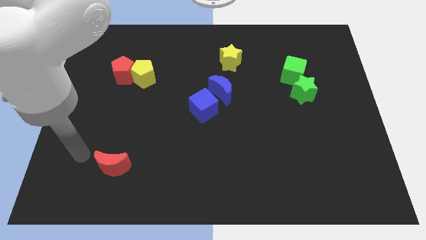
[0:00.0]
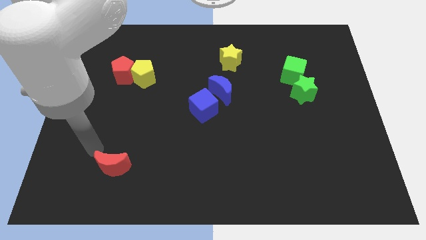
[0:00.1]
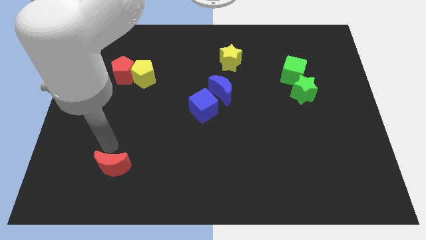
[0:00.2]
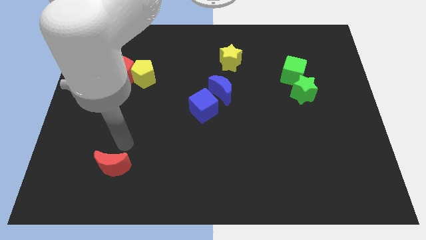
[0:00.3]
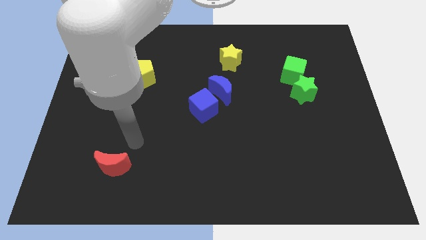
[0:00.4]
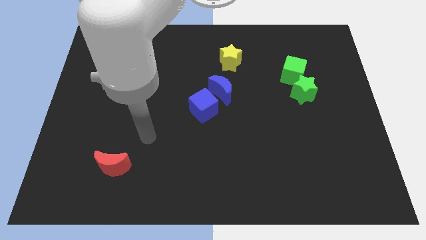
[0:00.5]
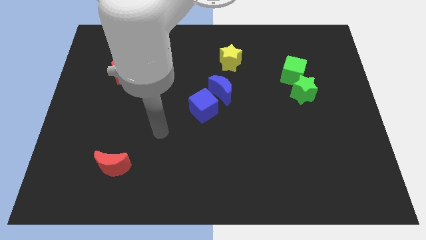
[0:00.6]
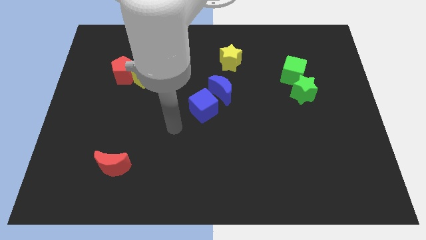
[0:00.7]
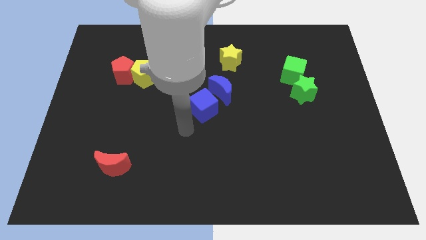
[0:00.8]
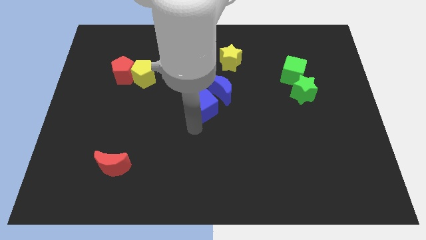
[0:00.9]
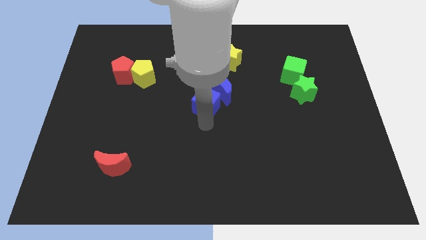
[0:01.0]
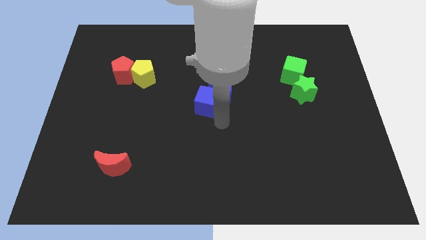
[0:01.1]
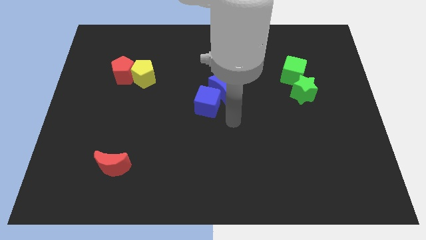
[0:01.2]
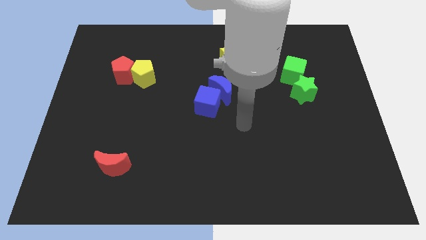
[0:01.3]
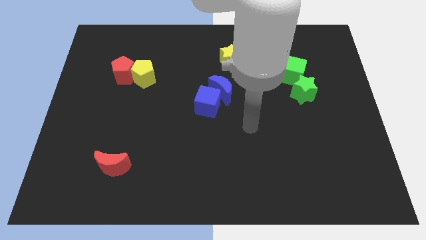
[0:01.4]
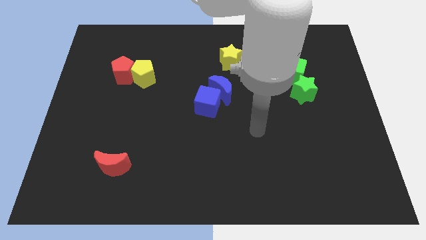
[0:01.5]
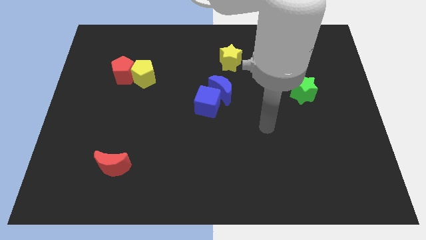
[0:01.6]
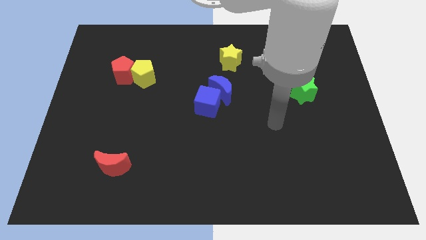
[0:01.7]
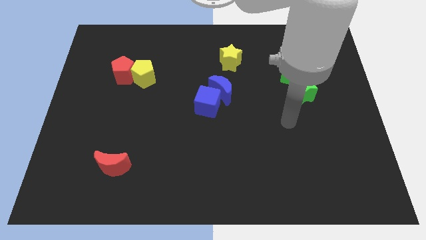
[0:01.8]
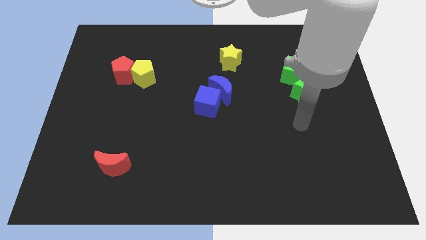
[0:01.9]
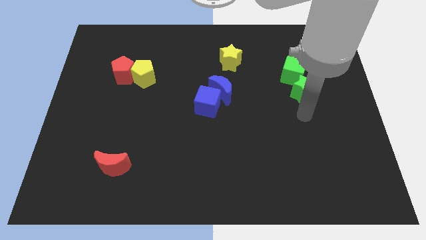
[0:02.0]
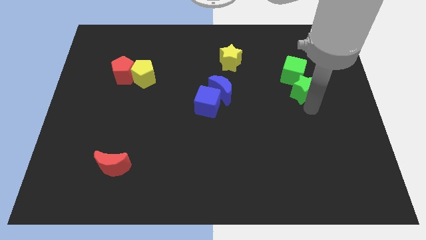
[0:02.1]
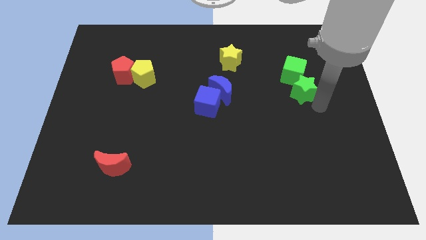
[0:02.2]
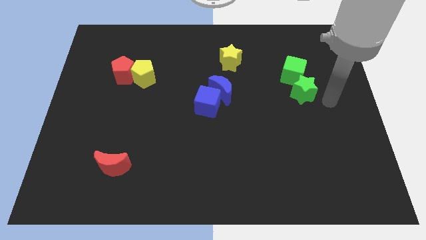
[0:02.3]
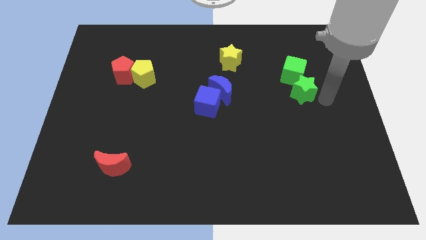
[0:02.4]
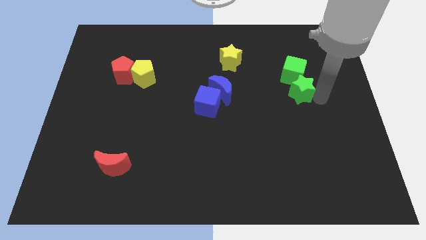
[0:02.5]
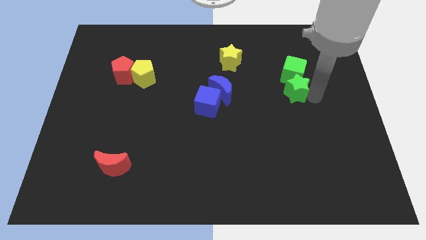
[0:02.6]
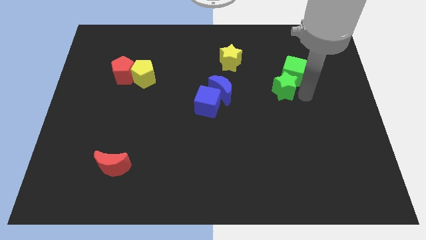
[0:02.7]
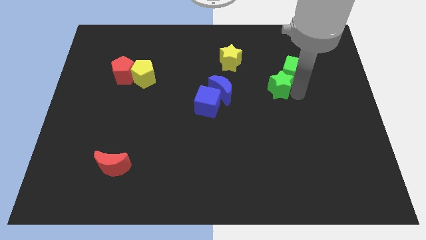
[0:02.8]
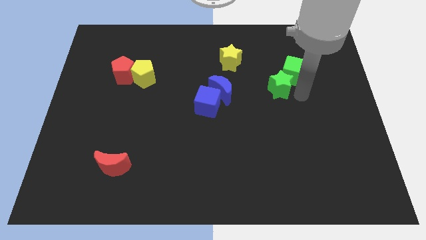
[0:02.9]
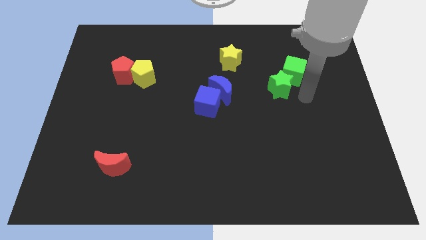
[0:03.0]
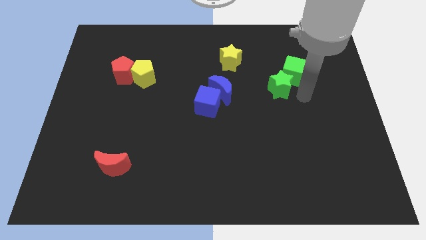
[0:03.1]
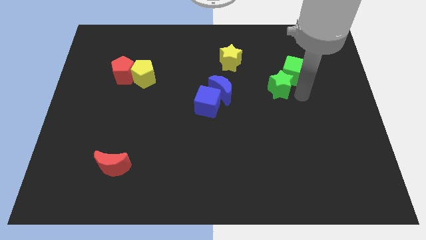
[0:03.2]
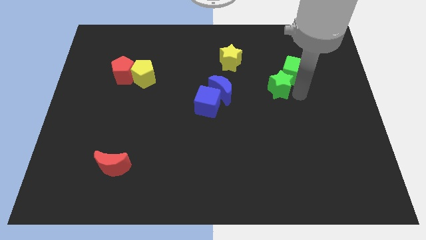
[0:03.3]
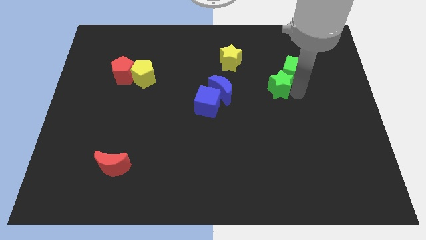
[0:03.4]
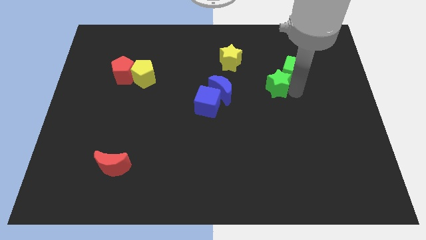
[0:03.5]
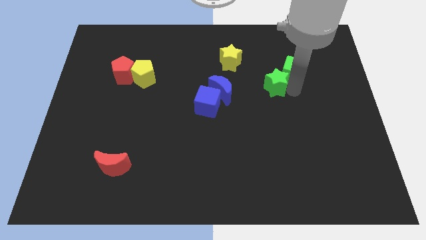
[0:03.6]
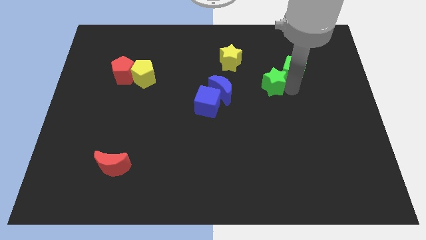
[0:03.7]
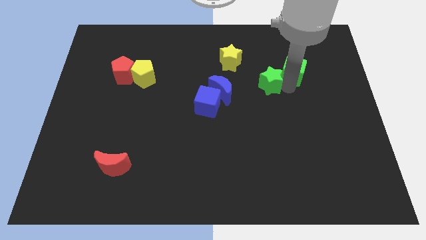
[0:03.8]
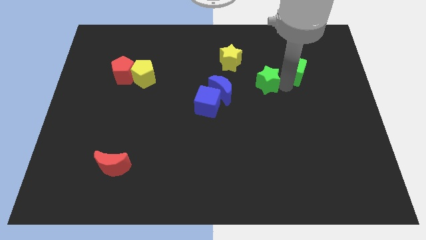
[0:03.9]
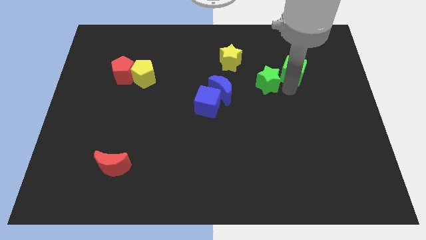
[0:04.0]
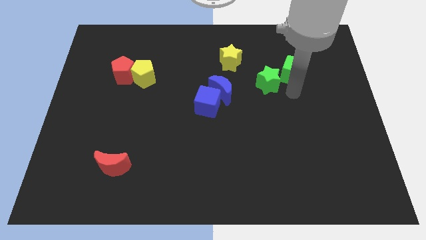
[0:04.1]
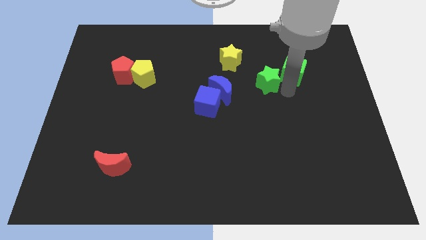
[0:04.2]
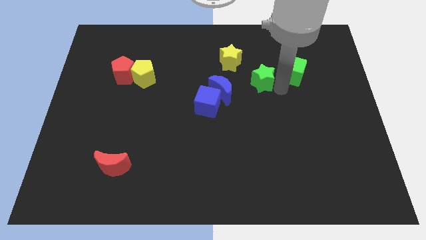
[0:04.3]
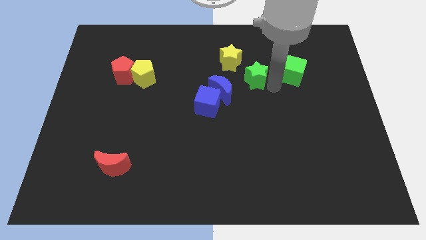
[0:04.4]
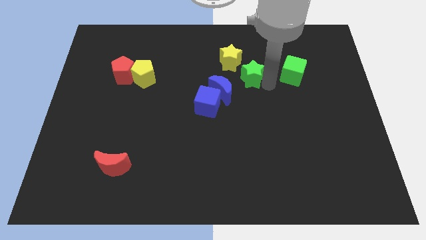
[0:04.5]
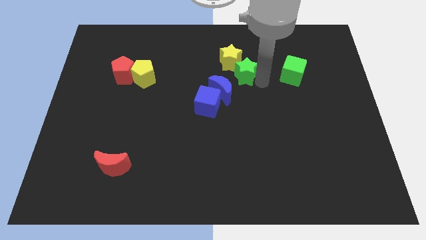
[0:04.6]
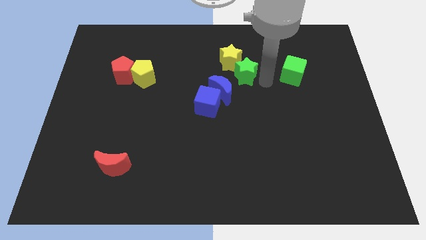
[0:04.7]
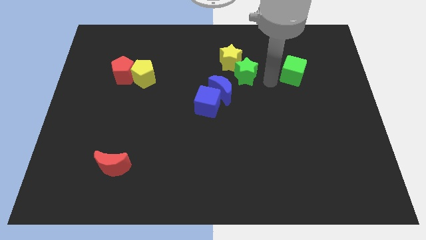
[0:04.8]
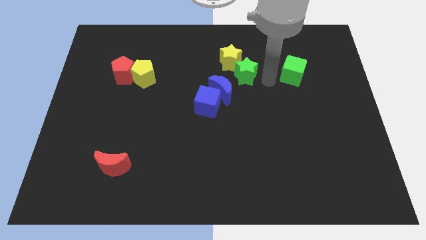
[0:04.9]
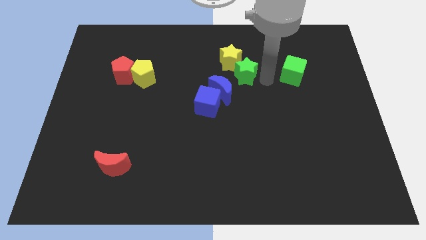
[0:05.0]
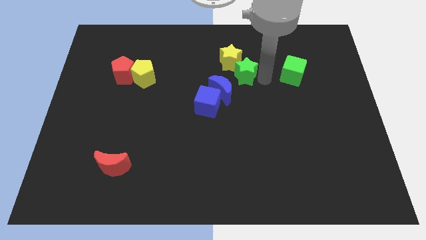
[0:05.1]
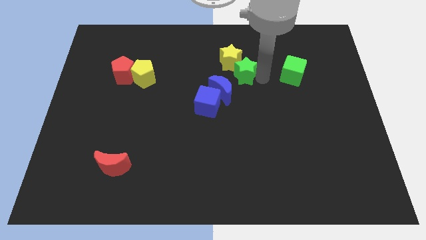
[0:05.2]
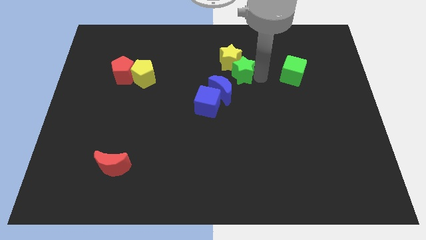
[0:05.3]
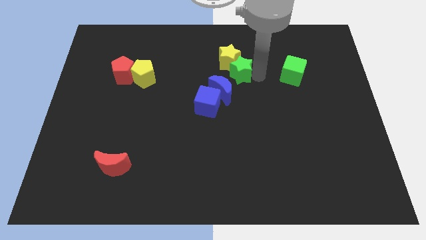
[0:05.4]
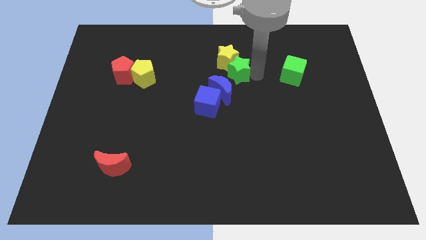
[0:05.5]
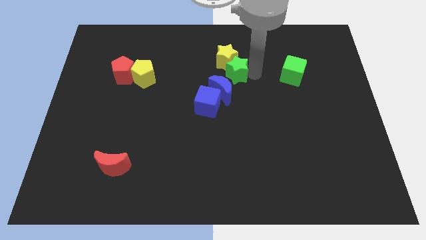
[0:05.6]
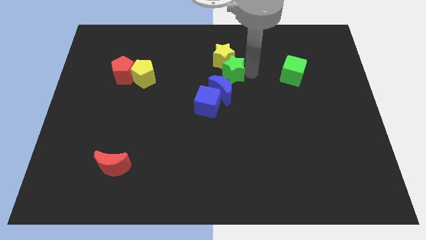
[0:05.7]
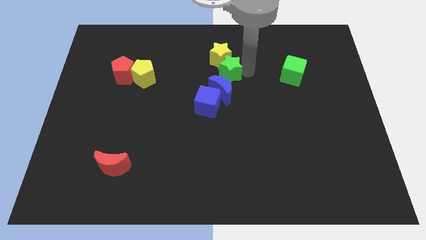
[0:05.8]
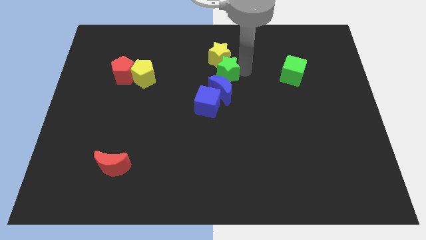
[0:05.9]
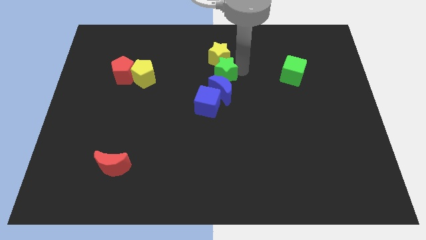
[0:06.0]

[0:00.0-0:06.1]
put the green star to the top left side of the blue moon
